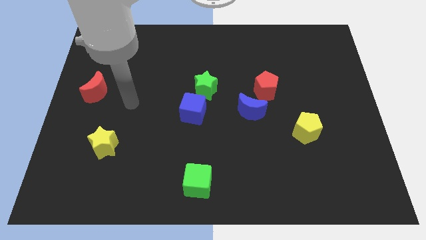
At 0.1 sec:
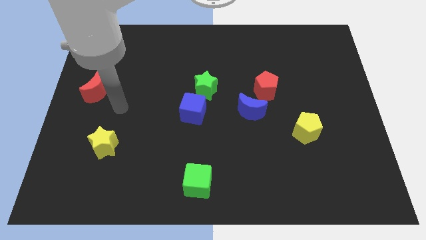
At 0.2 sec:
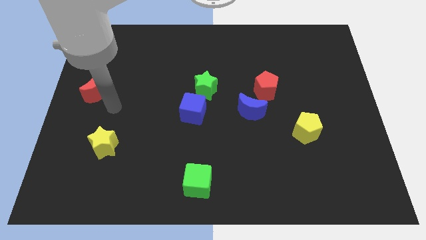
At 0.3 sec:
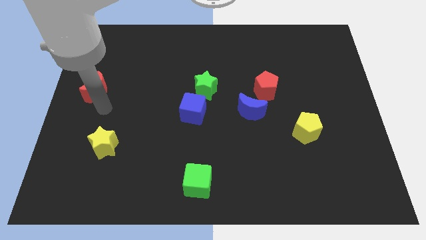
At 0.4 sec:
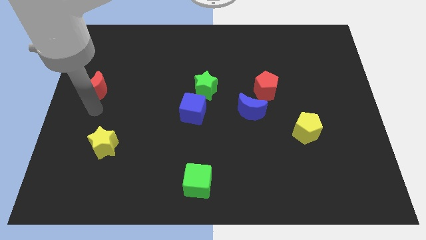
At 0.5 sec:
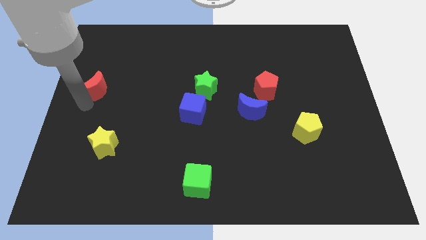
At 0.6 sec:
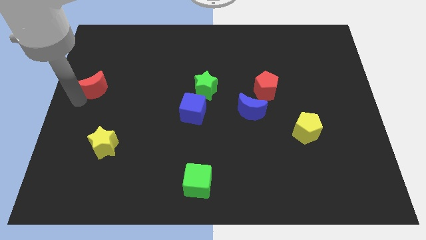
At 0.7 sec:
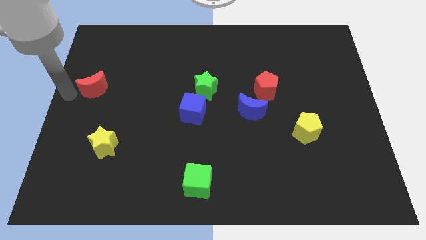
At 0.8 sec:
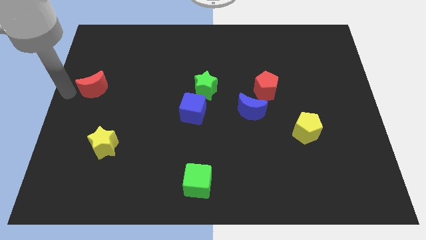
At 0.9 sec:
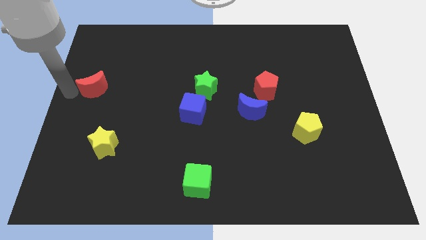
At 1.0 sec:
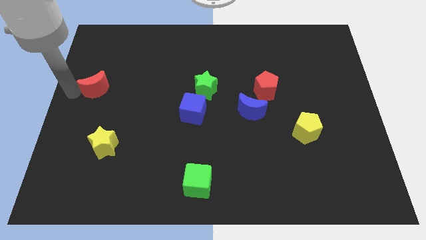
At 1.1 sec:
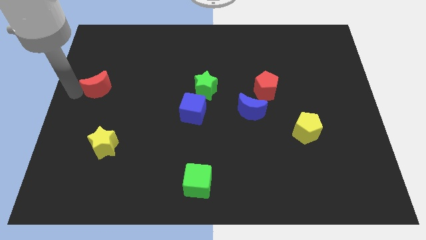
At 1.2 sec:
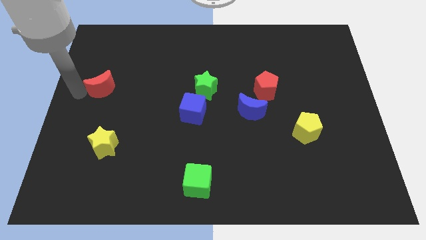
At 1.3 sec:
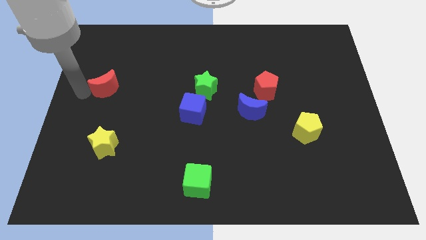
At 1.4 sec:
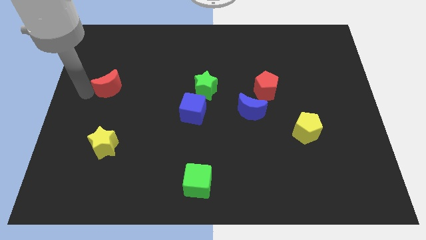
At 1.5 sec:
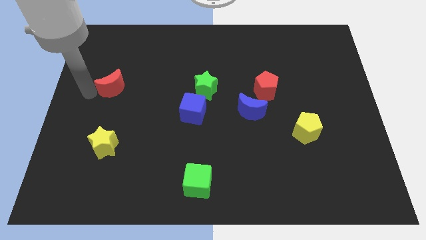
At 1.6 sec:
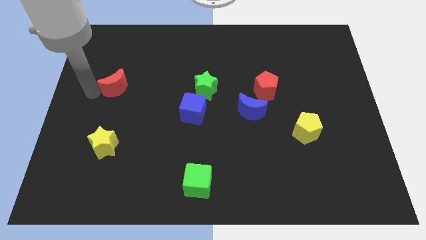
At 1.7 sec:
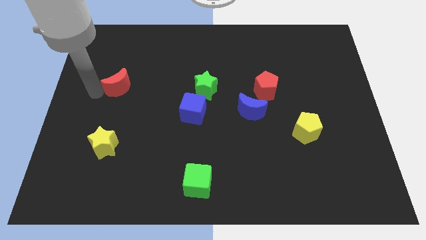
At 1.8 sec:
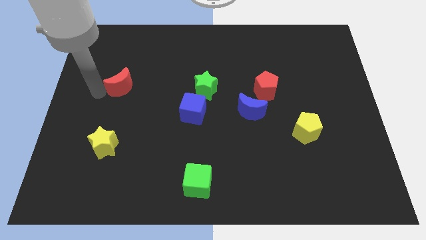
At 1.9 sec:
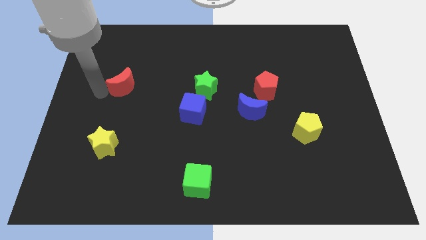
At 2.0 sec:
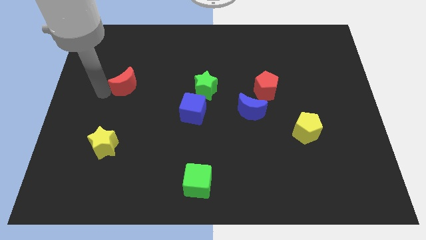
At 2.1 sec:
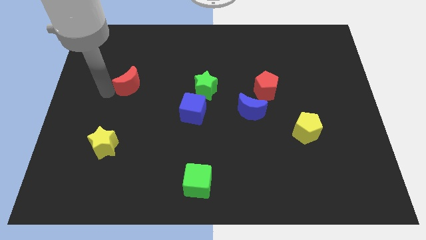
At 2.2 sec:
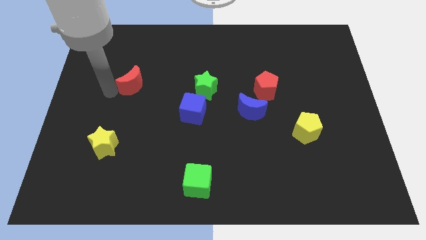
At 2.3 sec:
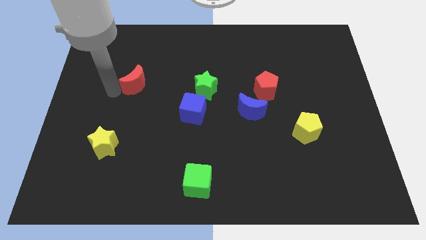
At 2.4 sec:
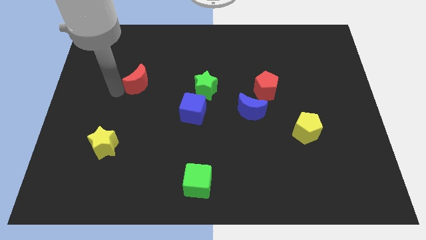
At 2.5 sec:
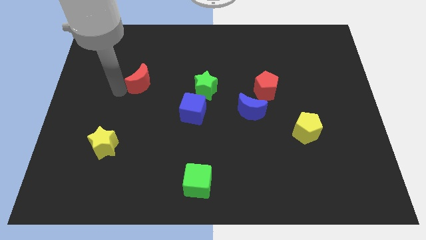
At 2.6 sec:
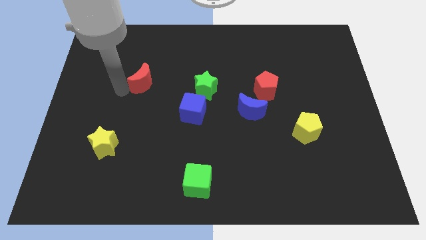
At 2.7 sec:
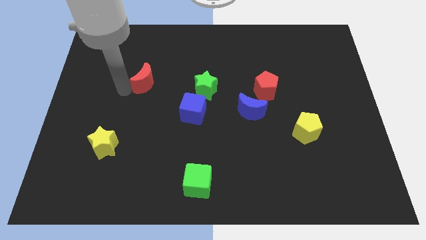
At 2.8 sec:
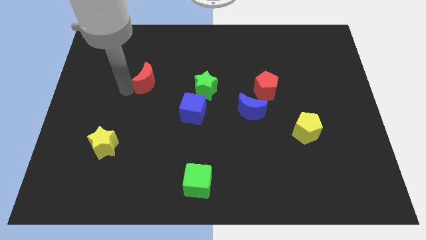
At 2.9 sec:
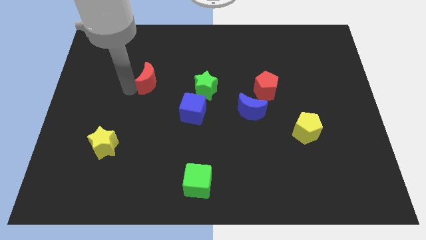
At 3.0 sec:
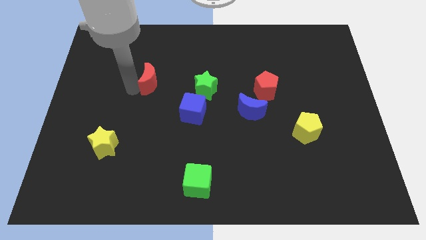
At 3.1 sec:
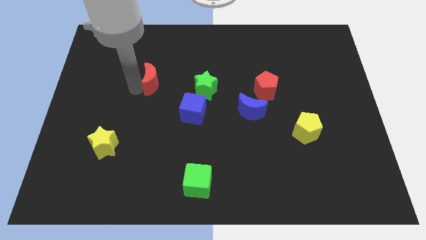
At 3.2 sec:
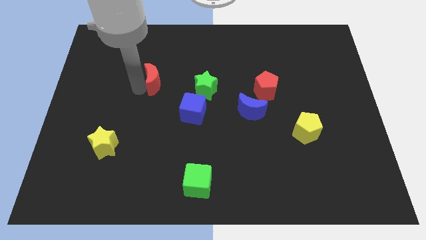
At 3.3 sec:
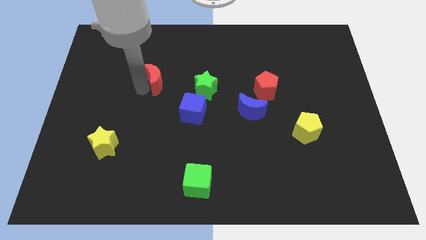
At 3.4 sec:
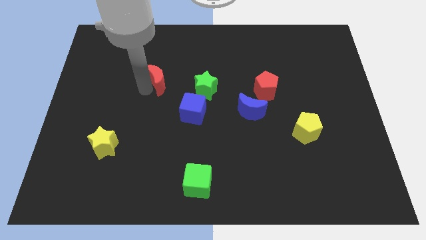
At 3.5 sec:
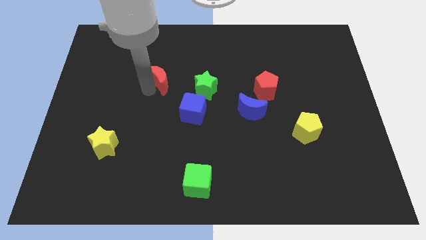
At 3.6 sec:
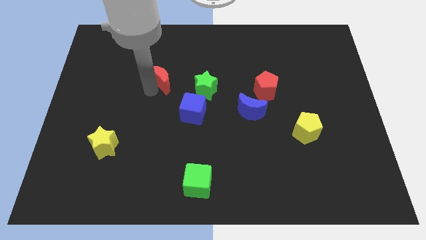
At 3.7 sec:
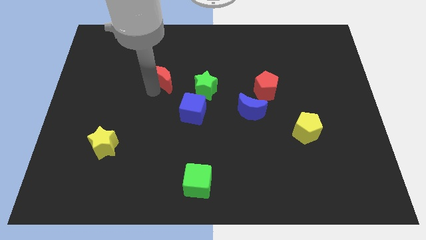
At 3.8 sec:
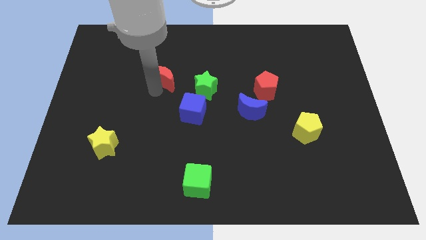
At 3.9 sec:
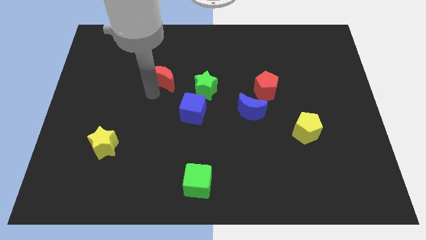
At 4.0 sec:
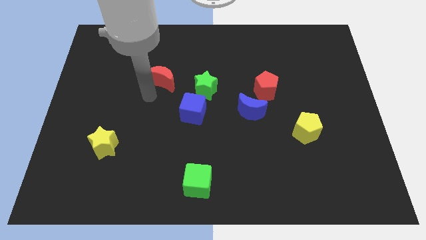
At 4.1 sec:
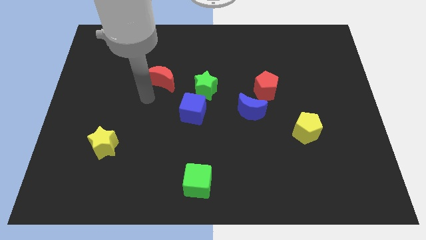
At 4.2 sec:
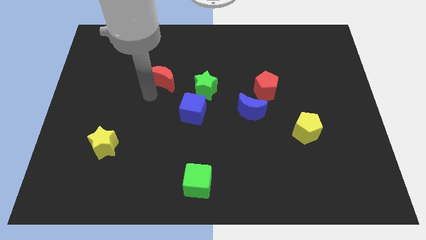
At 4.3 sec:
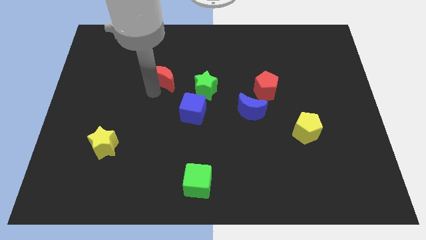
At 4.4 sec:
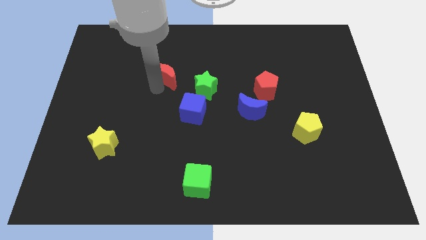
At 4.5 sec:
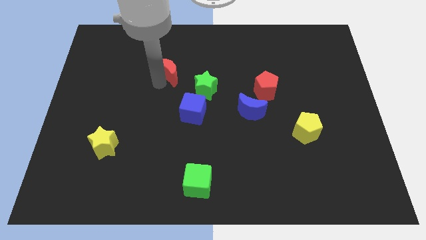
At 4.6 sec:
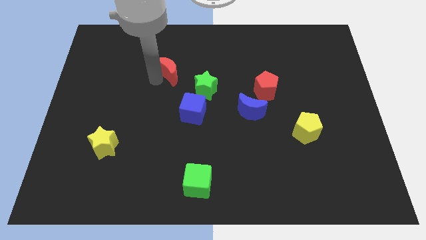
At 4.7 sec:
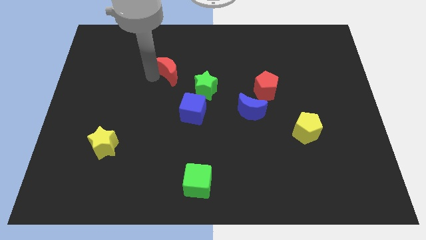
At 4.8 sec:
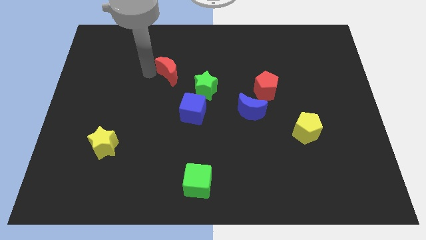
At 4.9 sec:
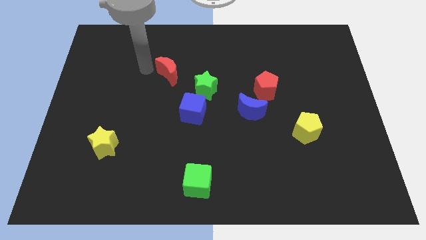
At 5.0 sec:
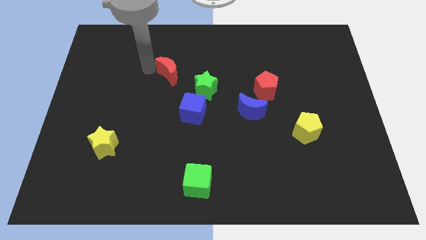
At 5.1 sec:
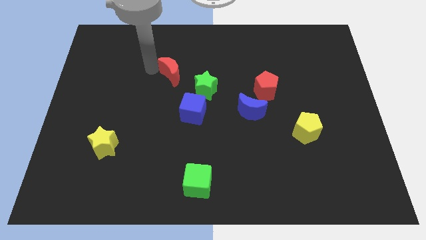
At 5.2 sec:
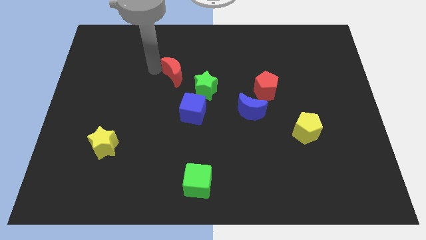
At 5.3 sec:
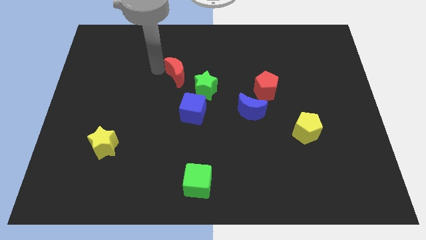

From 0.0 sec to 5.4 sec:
push the red moon to the top side of the blue cube

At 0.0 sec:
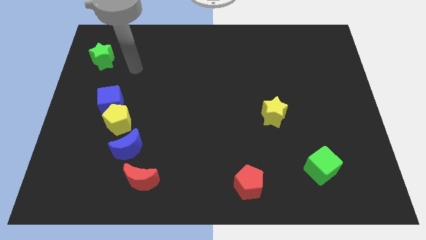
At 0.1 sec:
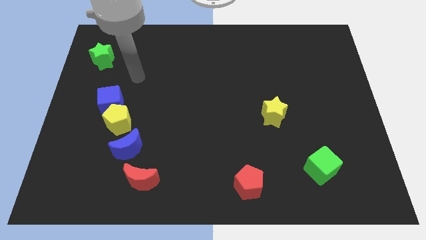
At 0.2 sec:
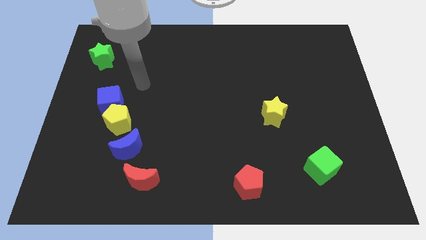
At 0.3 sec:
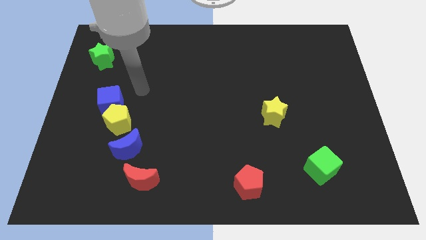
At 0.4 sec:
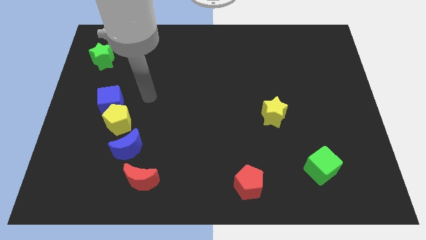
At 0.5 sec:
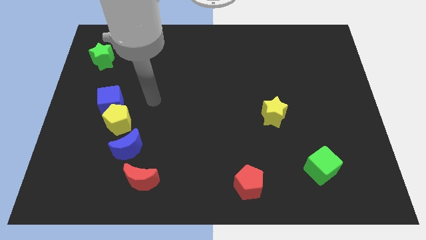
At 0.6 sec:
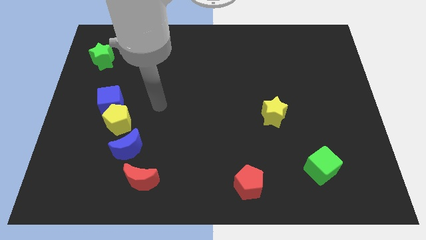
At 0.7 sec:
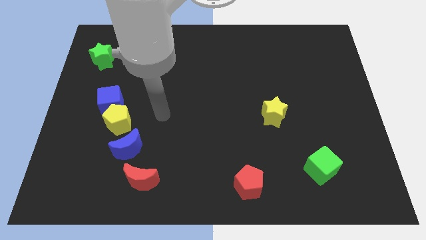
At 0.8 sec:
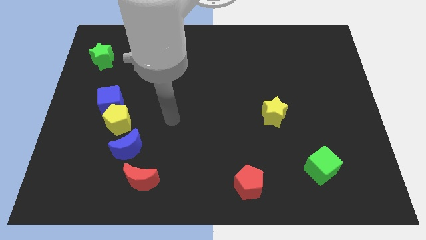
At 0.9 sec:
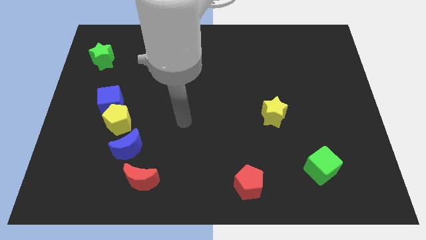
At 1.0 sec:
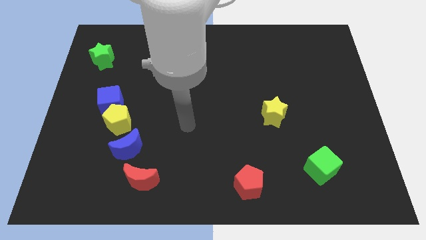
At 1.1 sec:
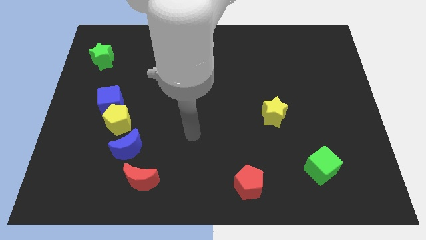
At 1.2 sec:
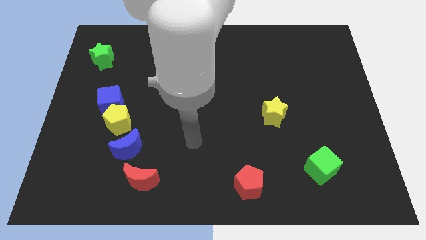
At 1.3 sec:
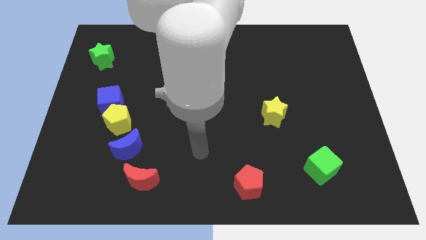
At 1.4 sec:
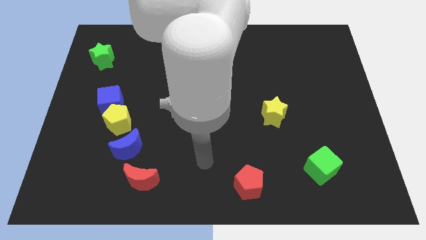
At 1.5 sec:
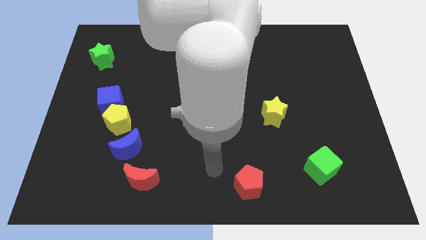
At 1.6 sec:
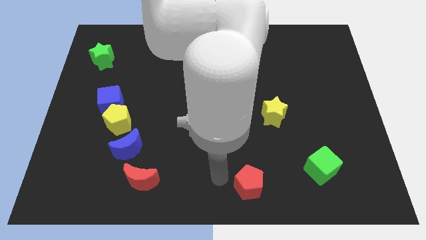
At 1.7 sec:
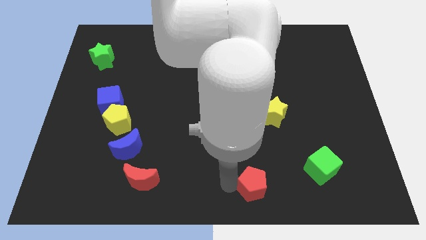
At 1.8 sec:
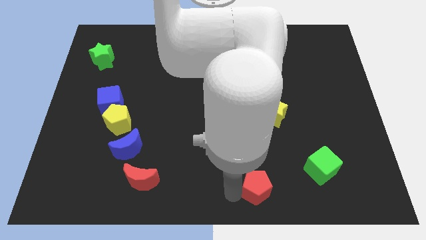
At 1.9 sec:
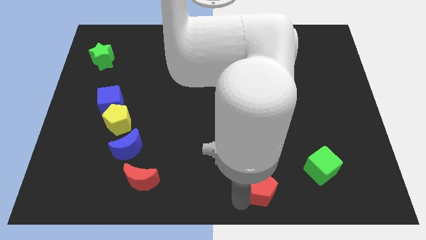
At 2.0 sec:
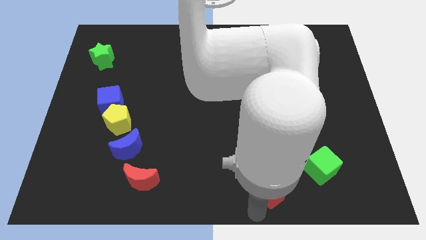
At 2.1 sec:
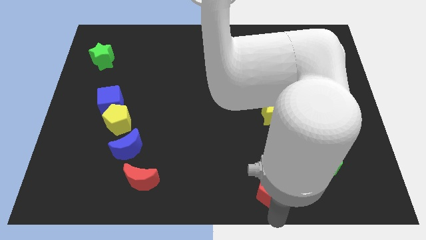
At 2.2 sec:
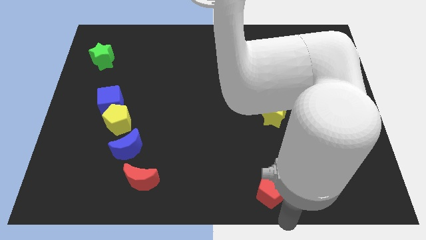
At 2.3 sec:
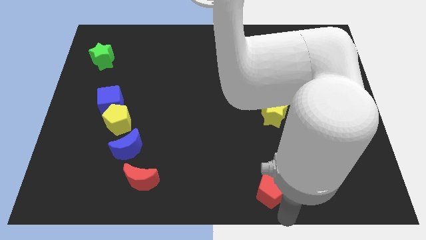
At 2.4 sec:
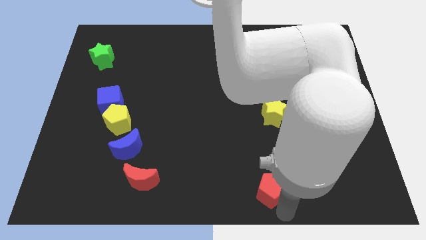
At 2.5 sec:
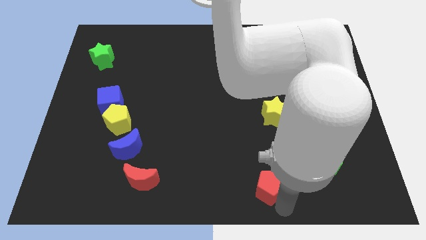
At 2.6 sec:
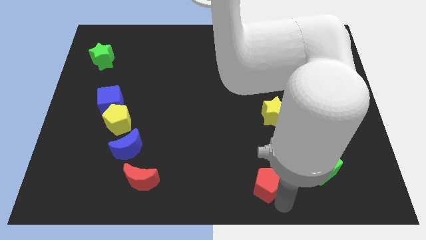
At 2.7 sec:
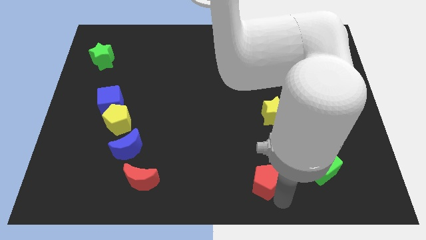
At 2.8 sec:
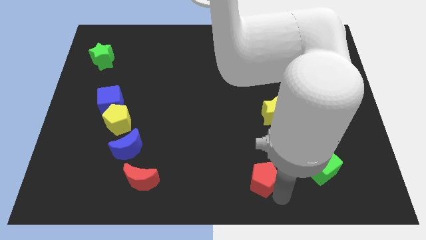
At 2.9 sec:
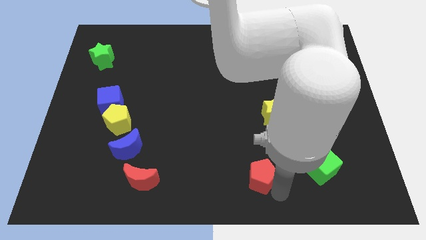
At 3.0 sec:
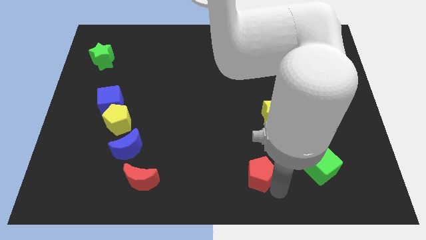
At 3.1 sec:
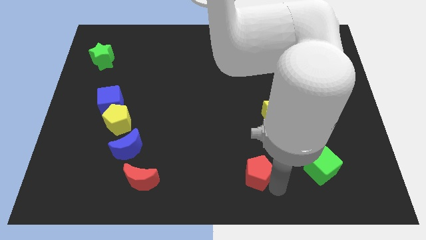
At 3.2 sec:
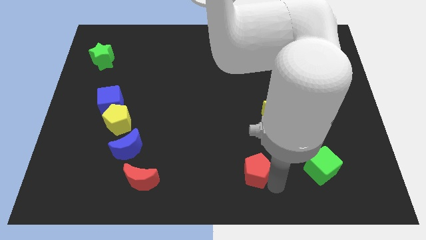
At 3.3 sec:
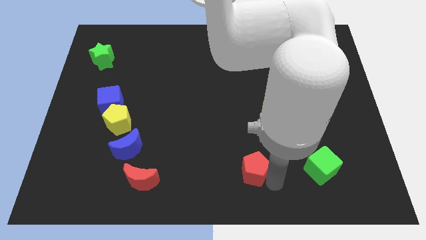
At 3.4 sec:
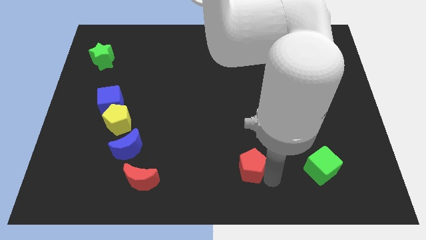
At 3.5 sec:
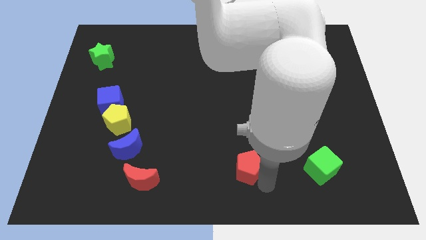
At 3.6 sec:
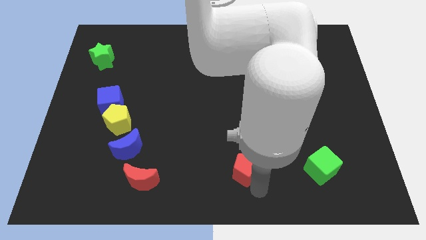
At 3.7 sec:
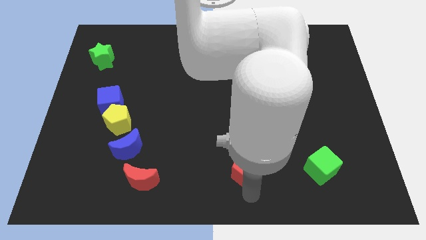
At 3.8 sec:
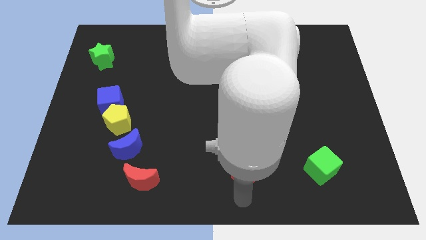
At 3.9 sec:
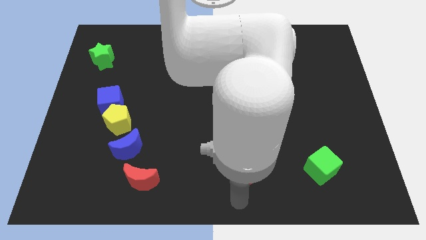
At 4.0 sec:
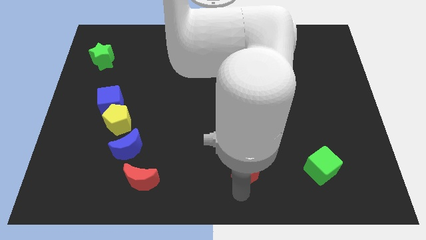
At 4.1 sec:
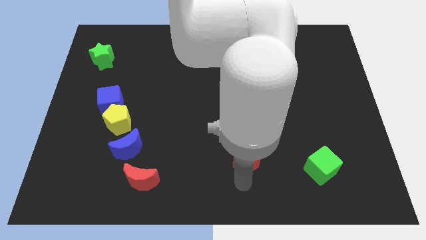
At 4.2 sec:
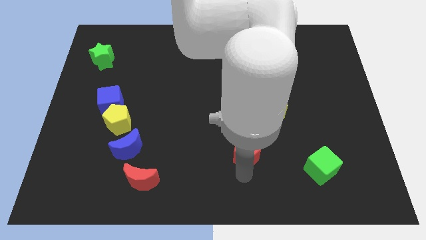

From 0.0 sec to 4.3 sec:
push the red pentagon diagonally down and to the left of the yellow star
